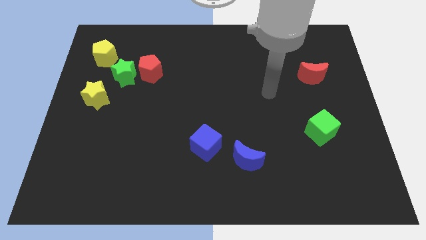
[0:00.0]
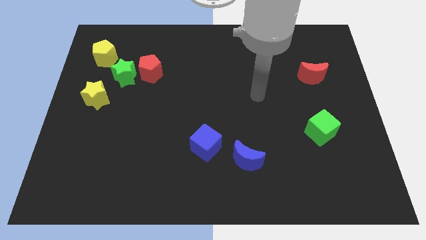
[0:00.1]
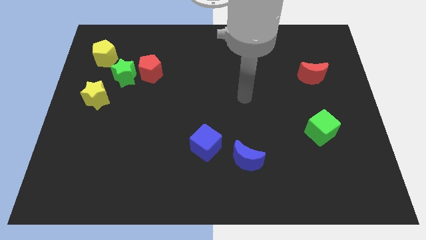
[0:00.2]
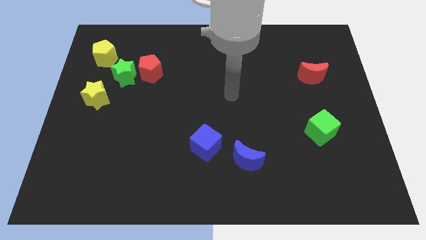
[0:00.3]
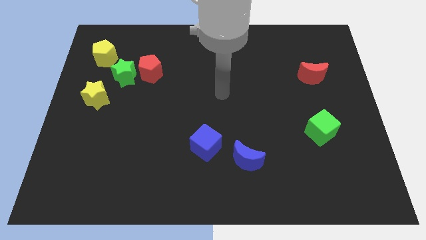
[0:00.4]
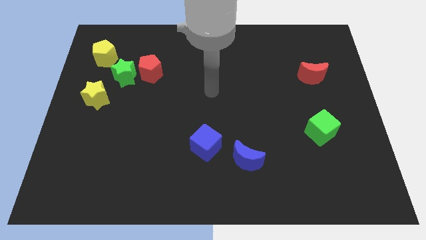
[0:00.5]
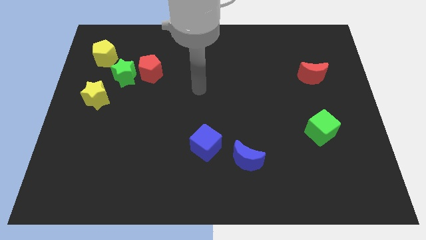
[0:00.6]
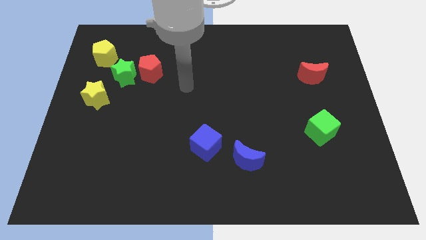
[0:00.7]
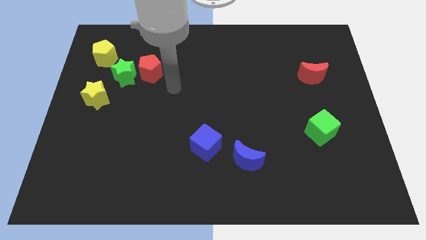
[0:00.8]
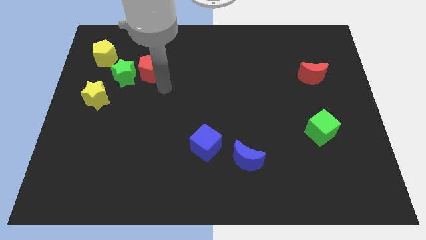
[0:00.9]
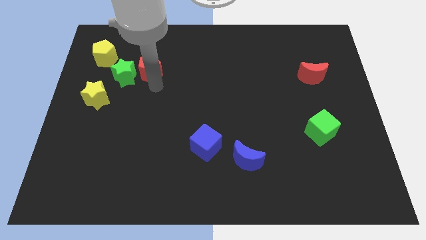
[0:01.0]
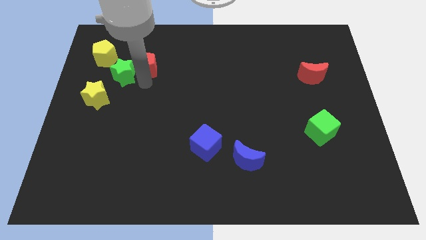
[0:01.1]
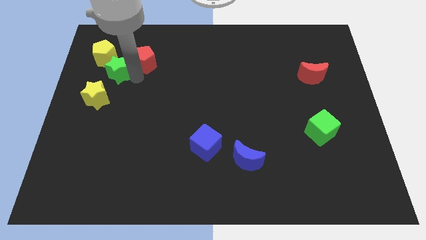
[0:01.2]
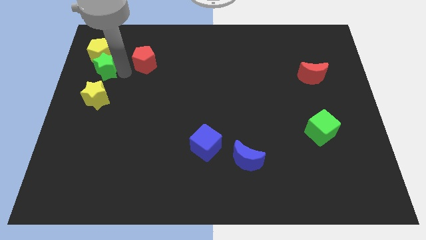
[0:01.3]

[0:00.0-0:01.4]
separate the red pentagon from the green star

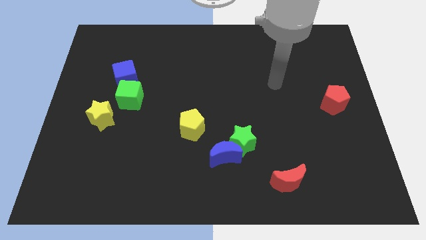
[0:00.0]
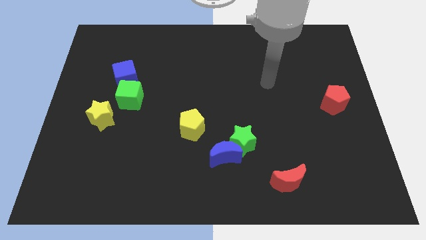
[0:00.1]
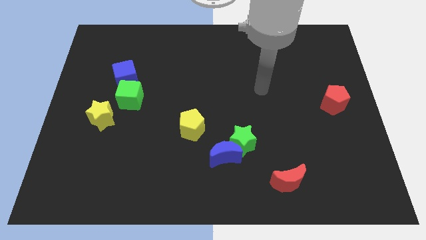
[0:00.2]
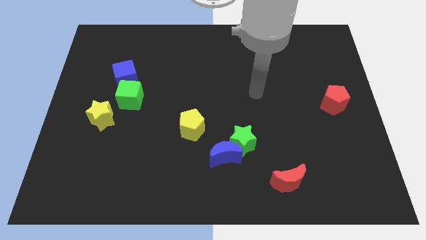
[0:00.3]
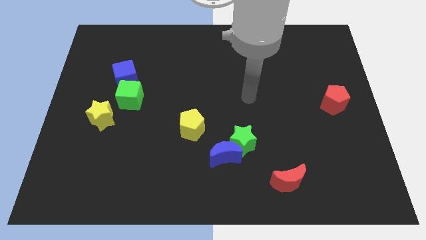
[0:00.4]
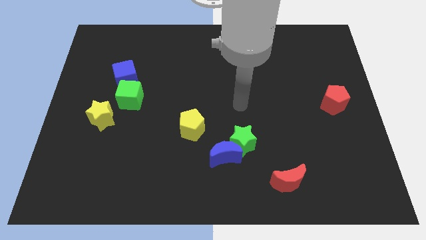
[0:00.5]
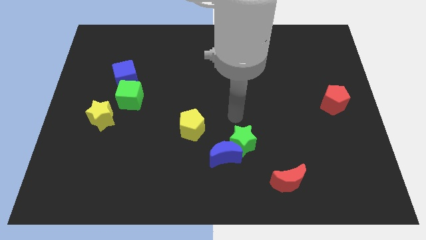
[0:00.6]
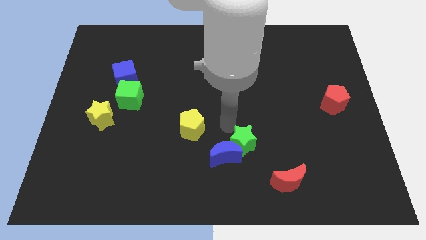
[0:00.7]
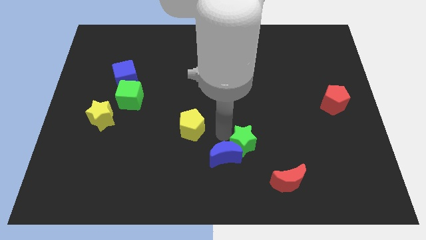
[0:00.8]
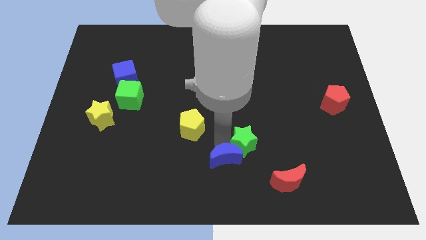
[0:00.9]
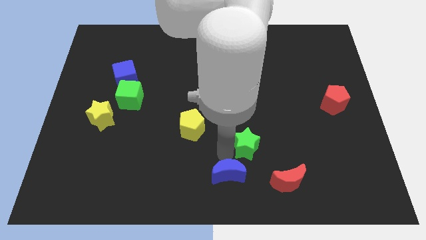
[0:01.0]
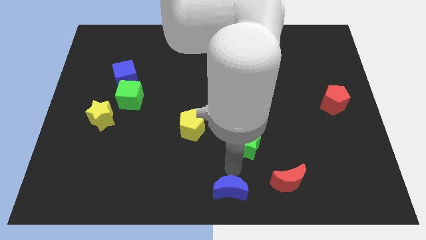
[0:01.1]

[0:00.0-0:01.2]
move the green star away from the blue moon

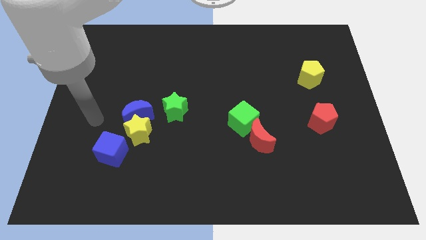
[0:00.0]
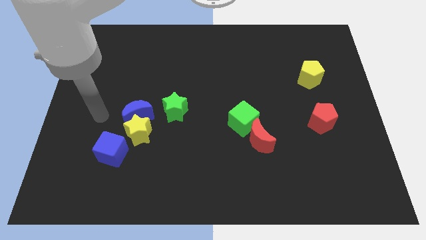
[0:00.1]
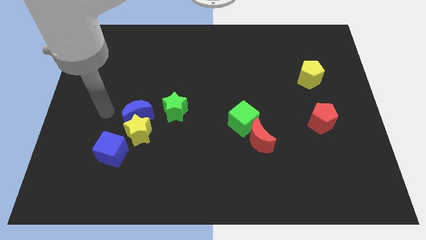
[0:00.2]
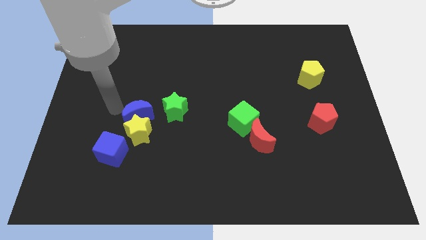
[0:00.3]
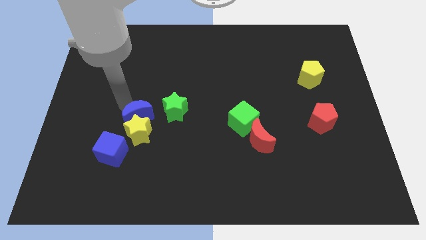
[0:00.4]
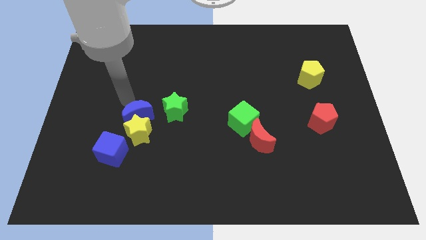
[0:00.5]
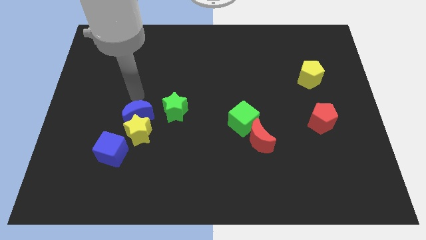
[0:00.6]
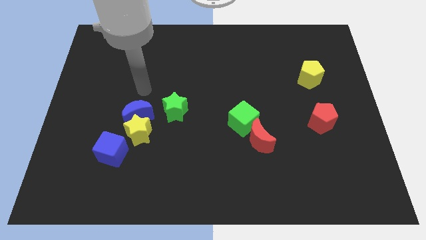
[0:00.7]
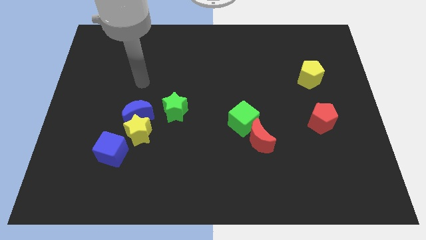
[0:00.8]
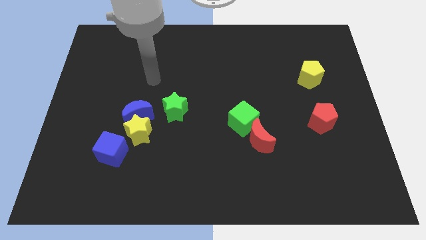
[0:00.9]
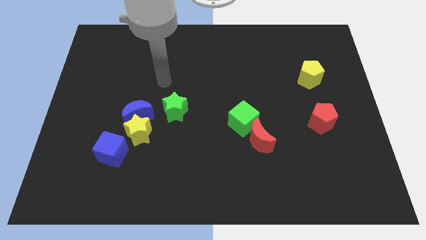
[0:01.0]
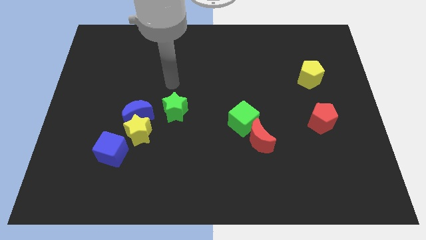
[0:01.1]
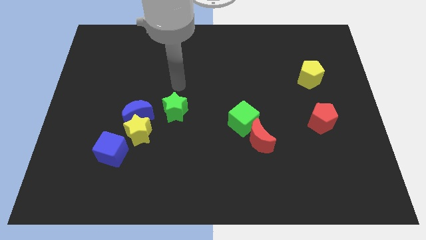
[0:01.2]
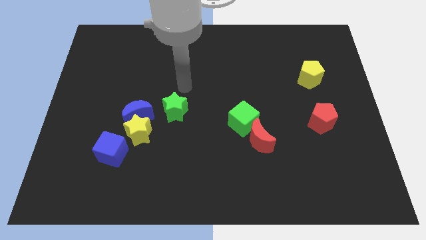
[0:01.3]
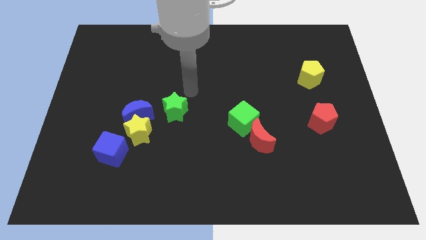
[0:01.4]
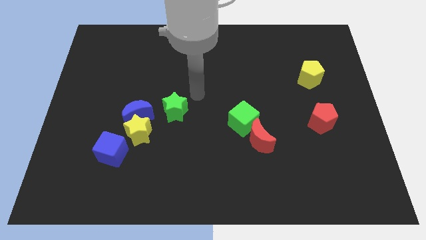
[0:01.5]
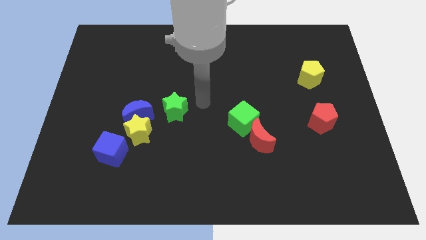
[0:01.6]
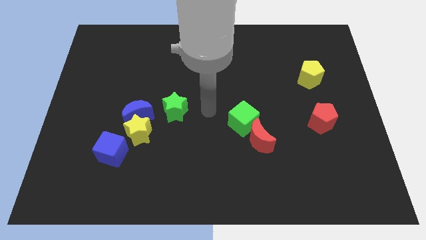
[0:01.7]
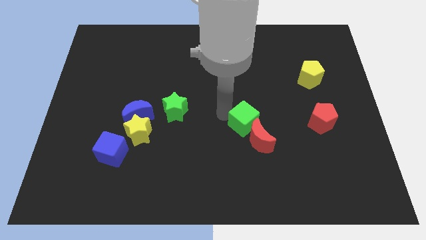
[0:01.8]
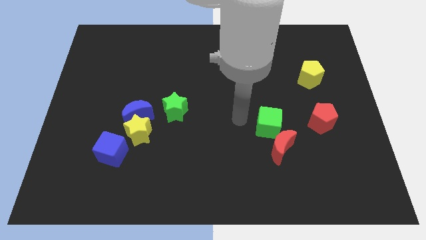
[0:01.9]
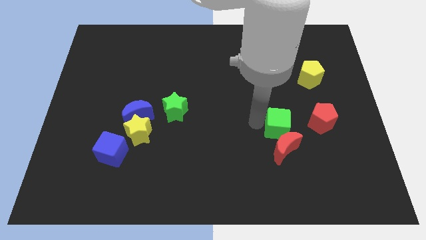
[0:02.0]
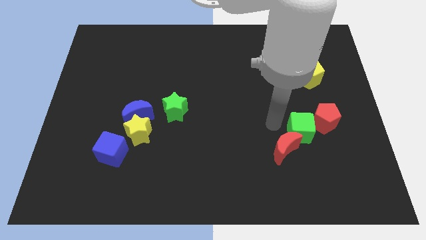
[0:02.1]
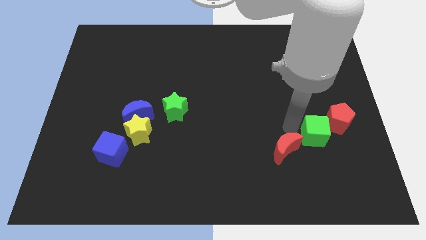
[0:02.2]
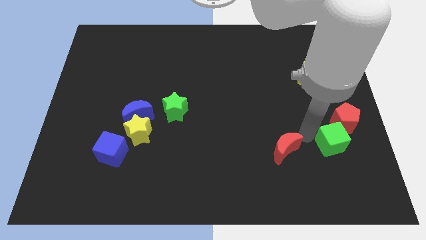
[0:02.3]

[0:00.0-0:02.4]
separate the red moon from the green cube

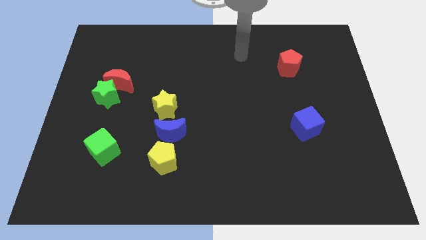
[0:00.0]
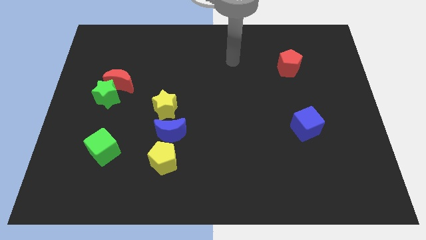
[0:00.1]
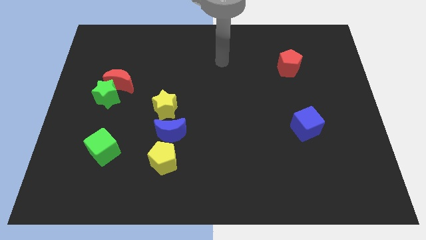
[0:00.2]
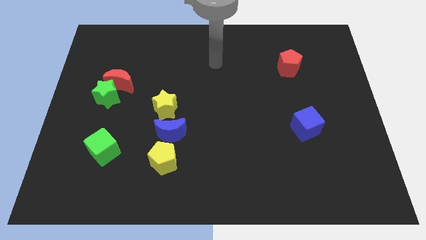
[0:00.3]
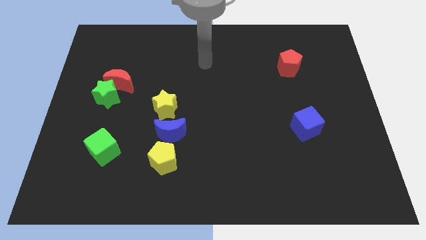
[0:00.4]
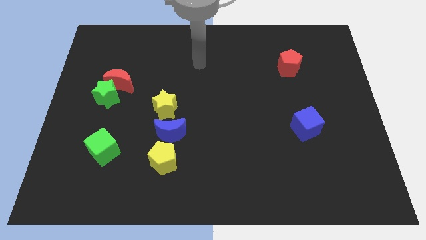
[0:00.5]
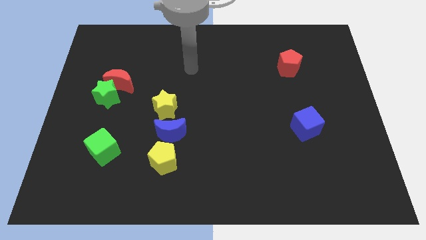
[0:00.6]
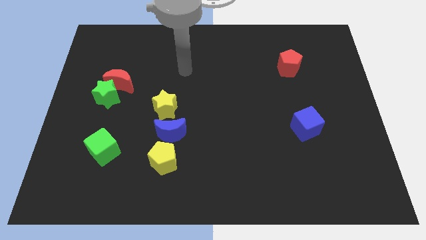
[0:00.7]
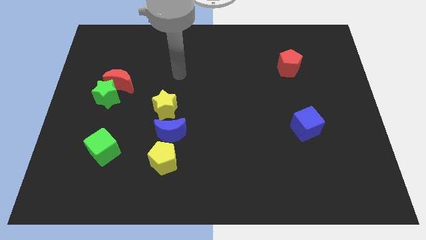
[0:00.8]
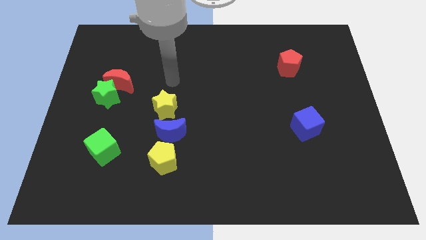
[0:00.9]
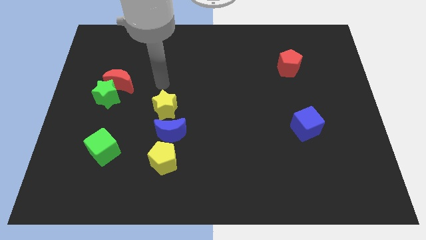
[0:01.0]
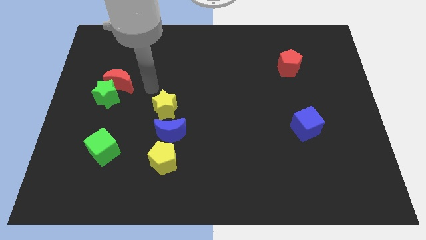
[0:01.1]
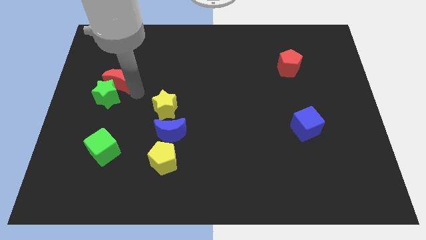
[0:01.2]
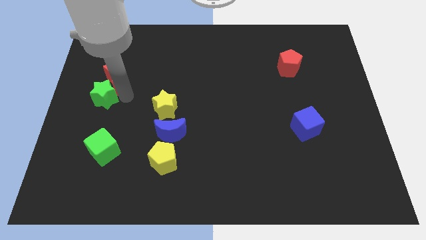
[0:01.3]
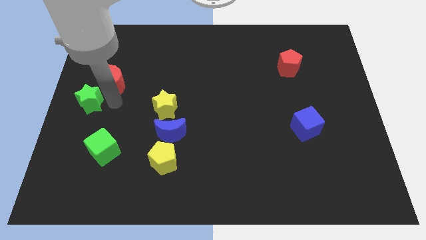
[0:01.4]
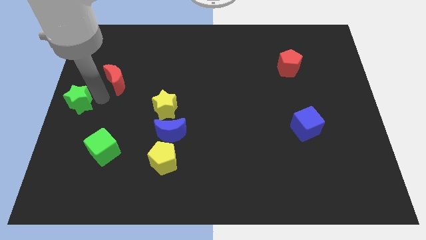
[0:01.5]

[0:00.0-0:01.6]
separate the red moon from the green star

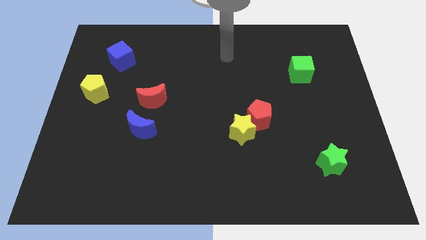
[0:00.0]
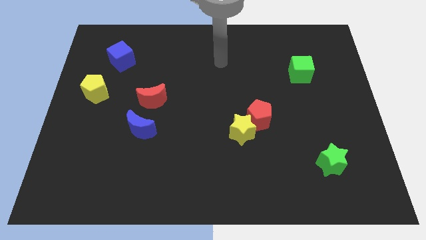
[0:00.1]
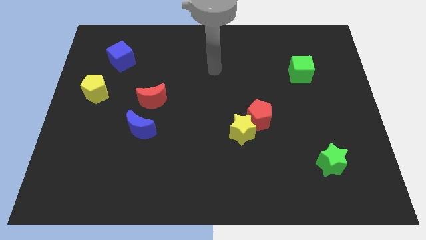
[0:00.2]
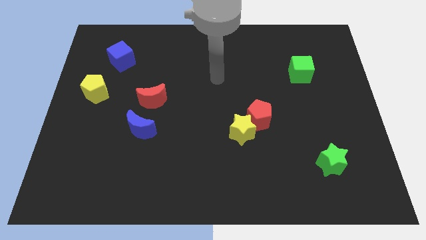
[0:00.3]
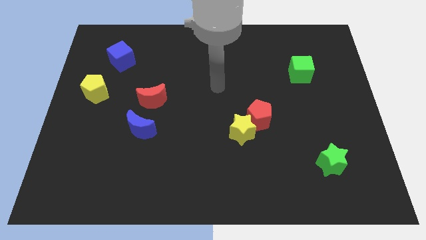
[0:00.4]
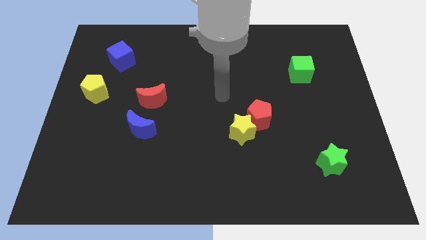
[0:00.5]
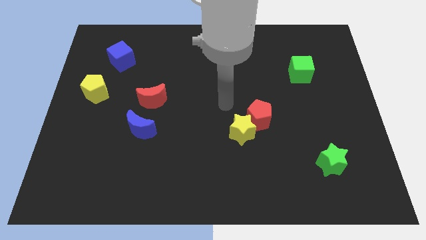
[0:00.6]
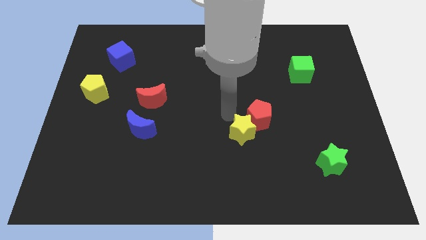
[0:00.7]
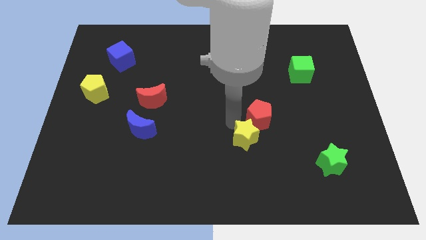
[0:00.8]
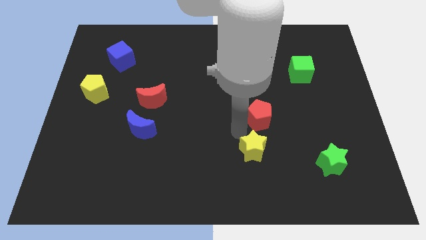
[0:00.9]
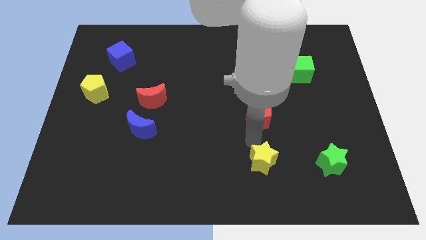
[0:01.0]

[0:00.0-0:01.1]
pull the red pentagon apart from the yellow star

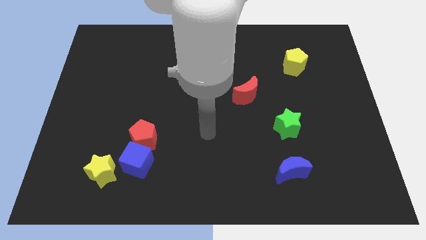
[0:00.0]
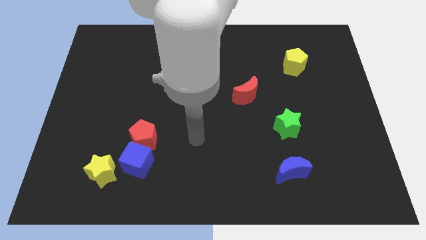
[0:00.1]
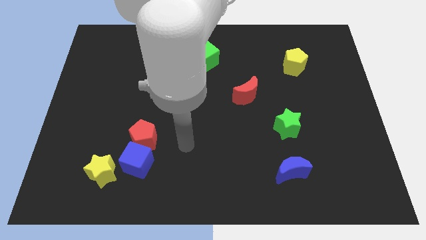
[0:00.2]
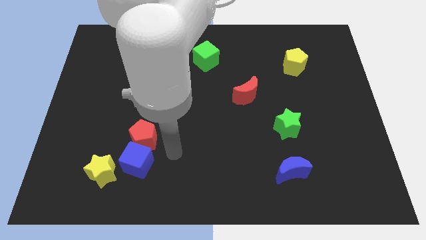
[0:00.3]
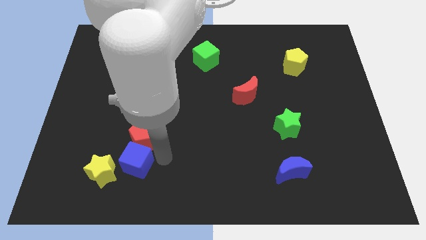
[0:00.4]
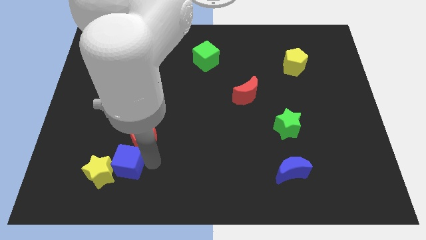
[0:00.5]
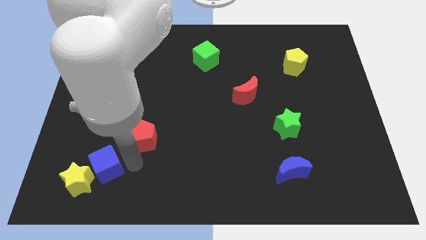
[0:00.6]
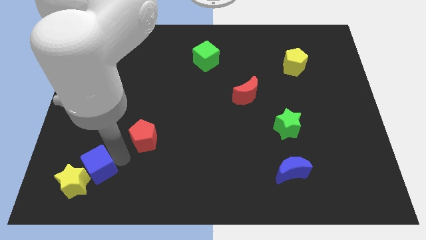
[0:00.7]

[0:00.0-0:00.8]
move the red pentagon away from the blue cube

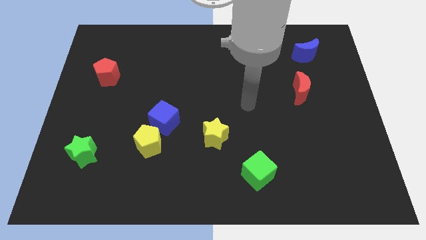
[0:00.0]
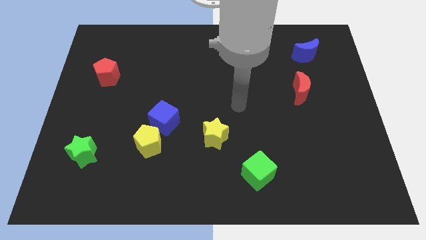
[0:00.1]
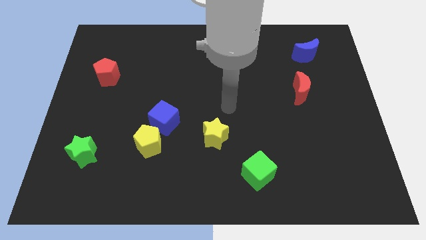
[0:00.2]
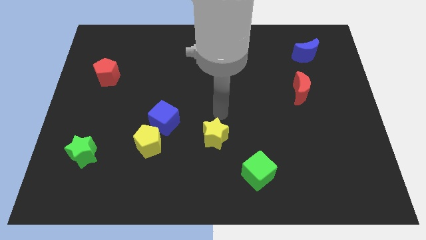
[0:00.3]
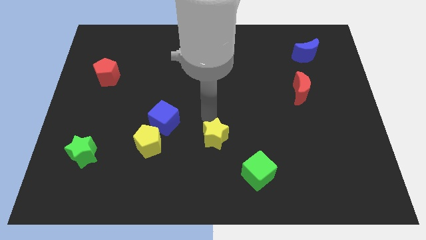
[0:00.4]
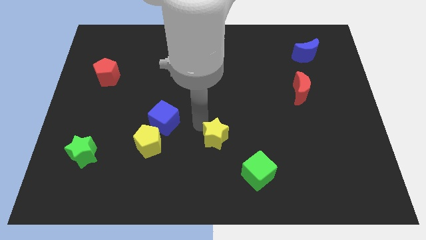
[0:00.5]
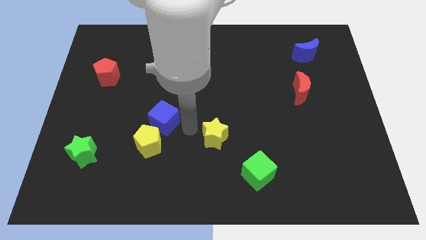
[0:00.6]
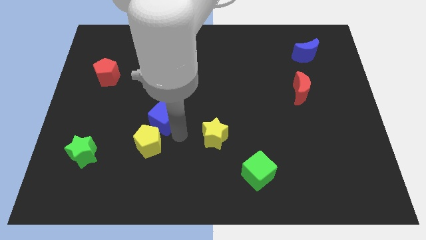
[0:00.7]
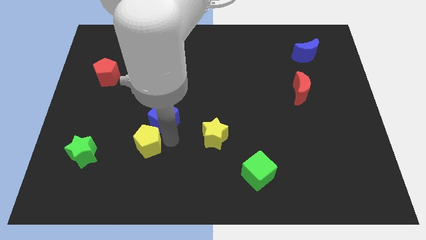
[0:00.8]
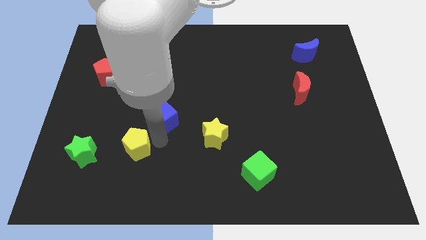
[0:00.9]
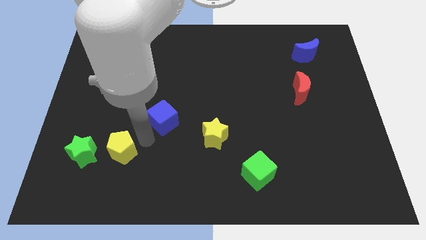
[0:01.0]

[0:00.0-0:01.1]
move the blue cube away from the yellow pentagon
